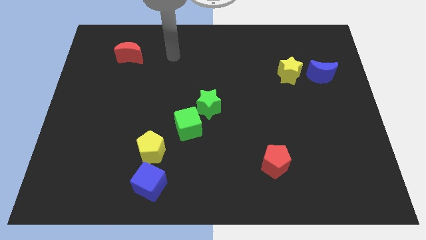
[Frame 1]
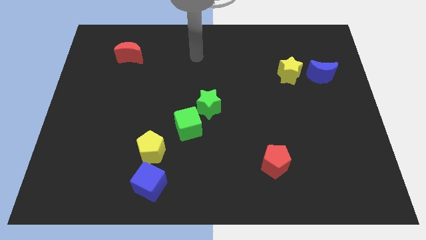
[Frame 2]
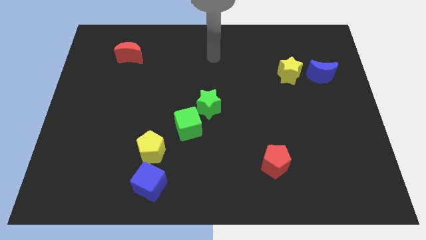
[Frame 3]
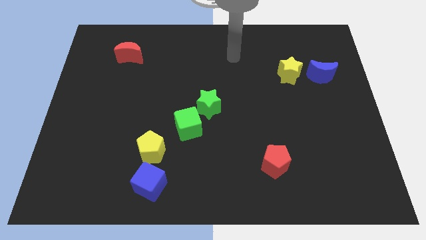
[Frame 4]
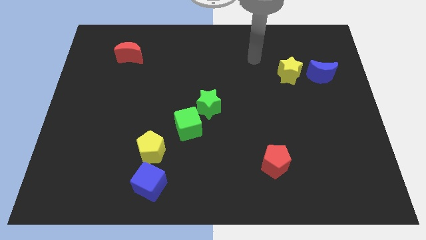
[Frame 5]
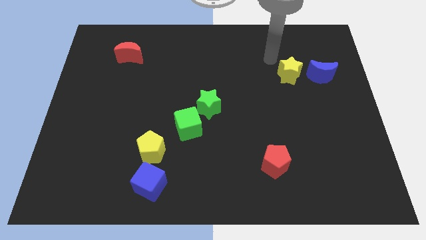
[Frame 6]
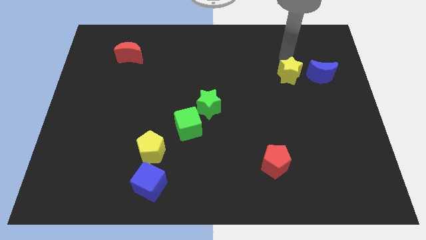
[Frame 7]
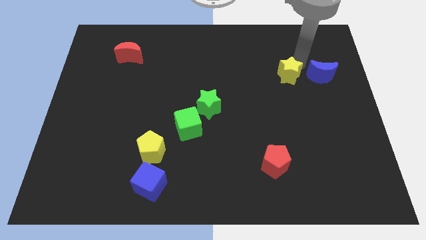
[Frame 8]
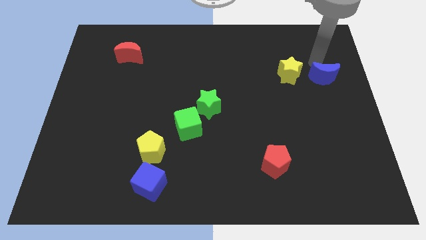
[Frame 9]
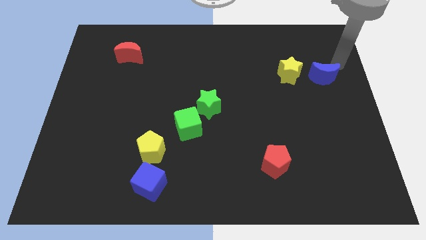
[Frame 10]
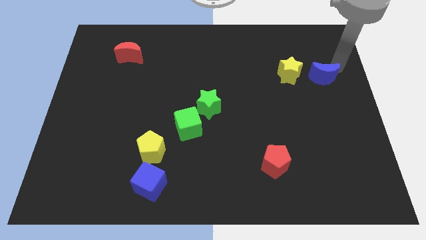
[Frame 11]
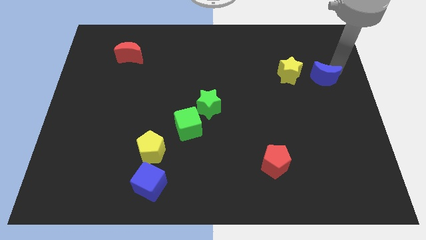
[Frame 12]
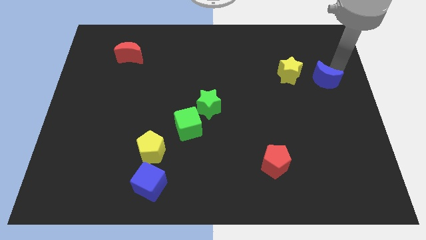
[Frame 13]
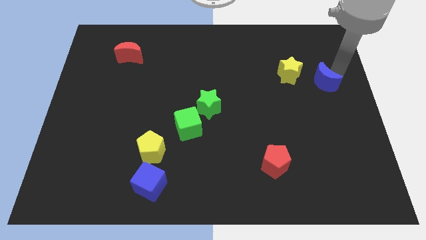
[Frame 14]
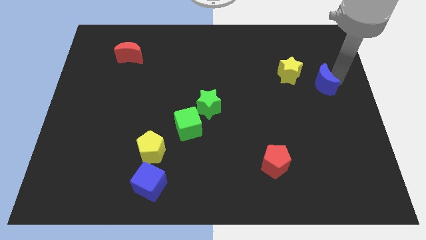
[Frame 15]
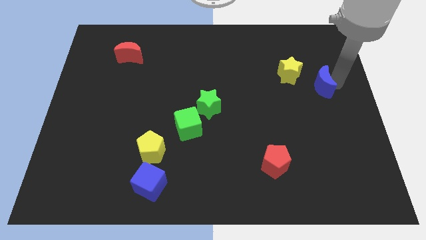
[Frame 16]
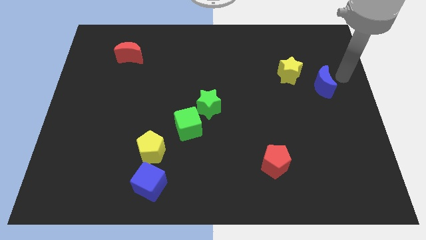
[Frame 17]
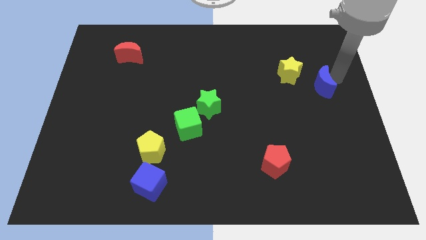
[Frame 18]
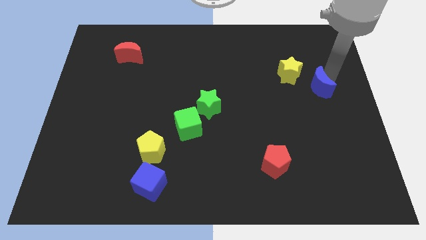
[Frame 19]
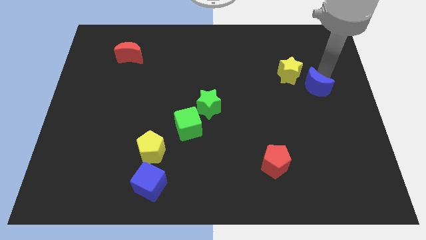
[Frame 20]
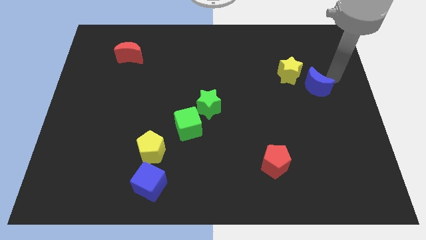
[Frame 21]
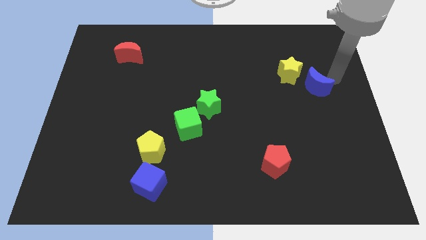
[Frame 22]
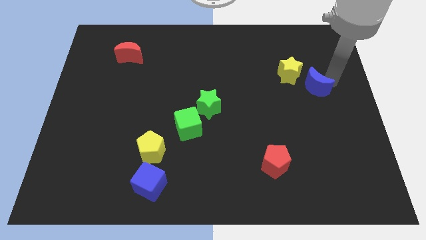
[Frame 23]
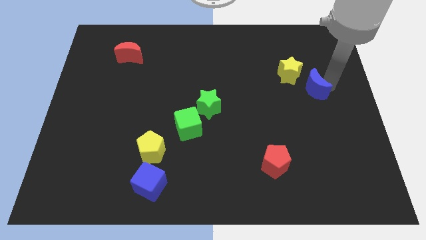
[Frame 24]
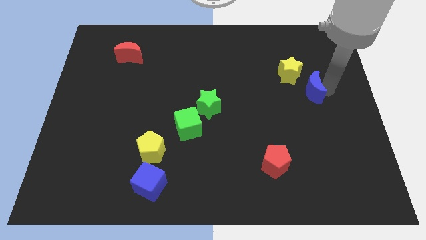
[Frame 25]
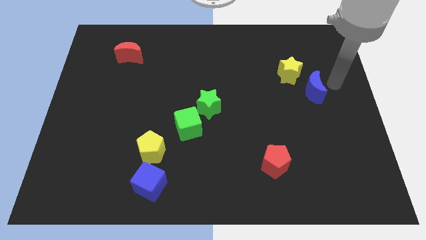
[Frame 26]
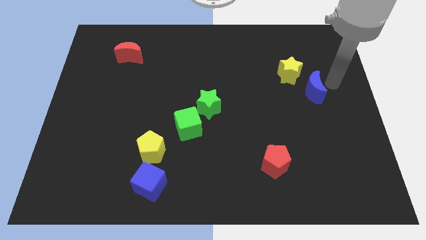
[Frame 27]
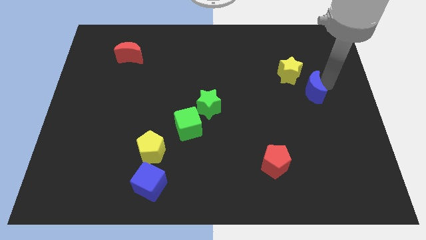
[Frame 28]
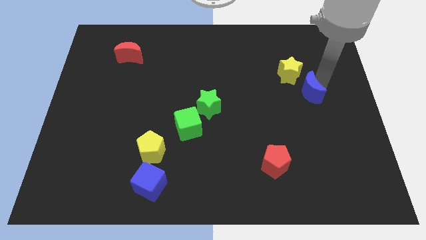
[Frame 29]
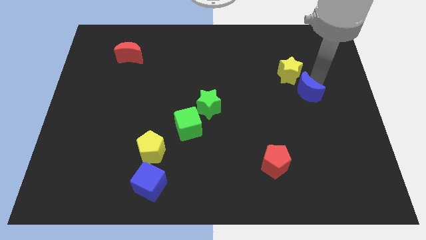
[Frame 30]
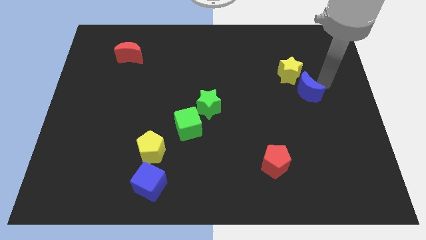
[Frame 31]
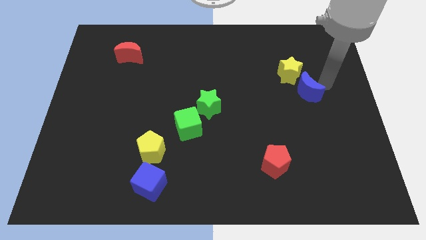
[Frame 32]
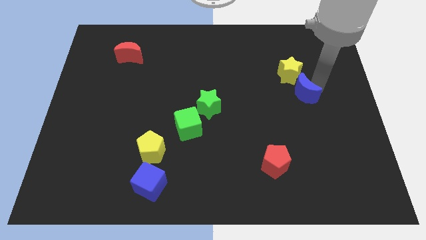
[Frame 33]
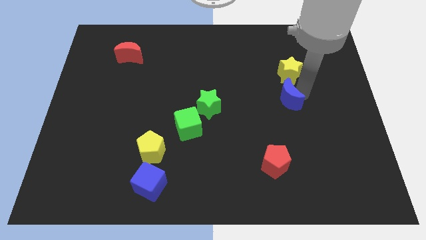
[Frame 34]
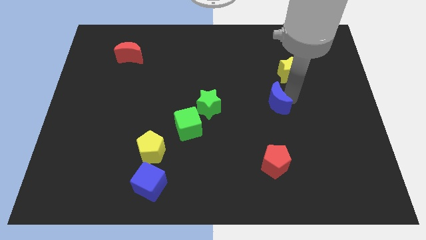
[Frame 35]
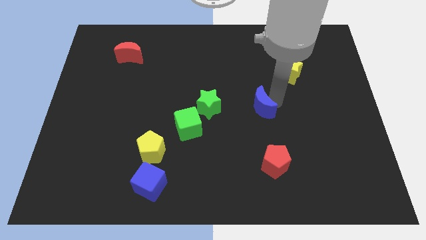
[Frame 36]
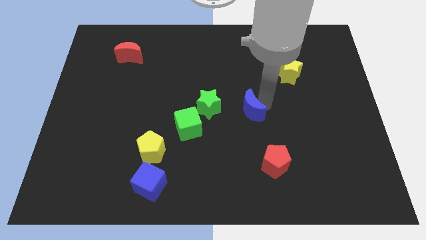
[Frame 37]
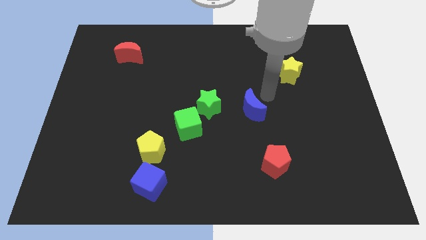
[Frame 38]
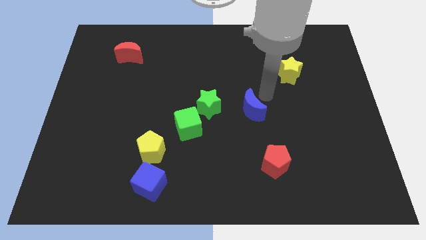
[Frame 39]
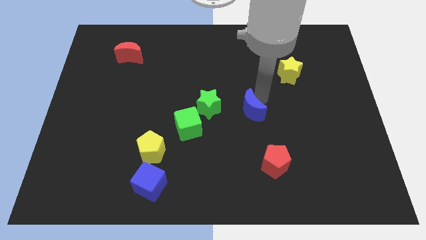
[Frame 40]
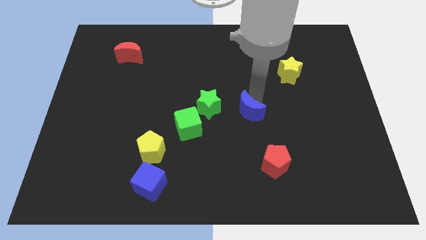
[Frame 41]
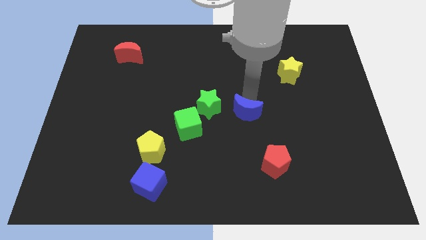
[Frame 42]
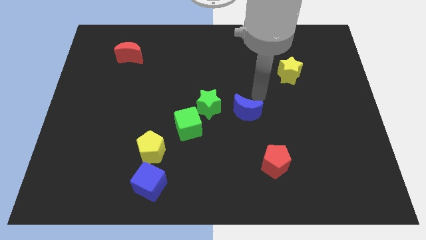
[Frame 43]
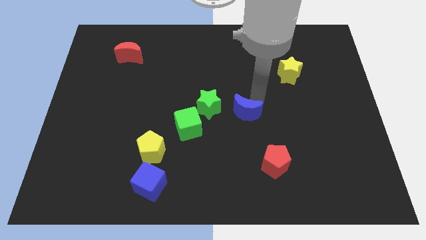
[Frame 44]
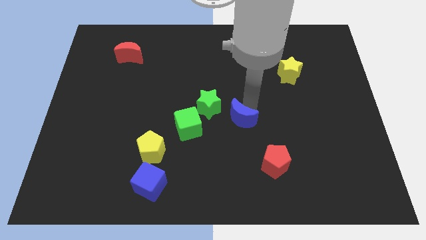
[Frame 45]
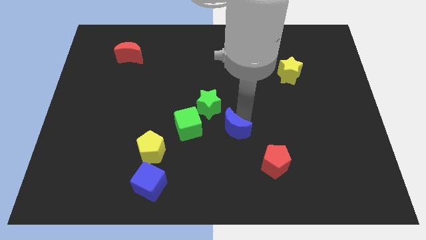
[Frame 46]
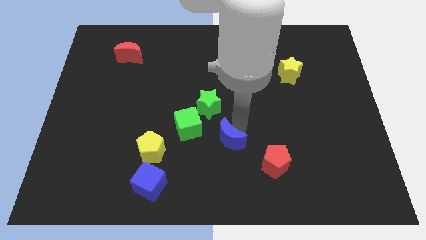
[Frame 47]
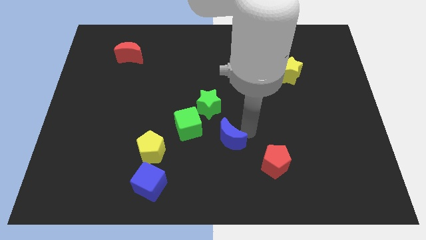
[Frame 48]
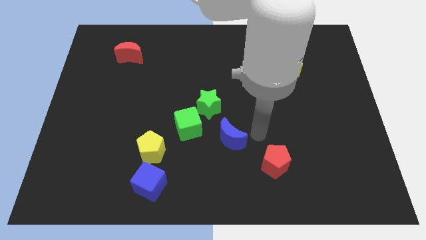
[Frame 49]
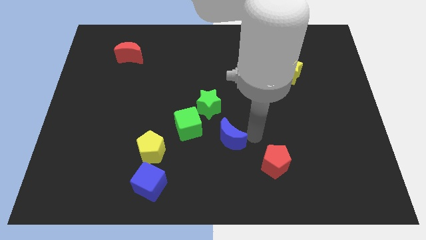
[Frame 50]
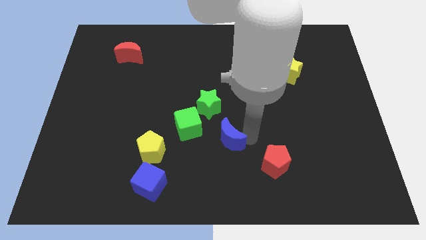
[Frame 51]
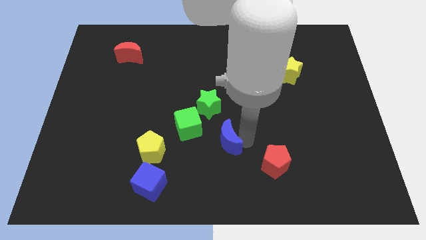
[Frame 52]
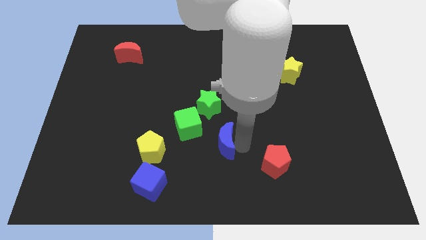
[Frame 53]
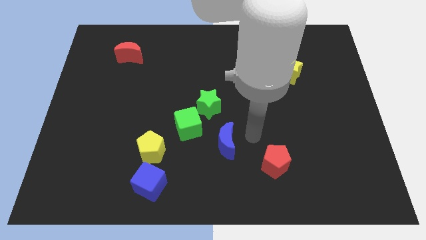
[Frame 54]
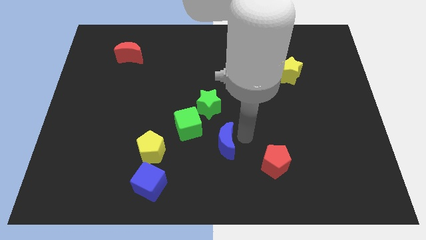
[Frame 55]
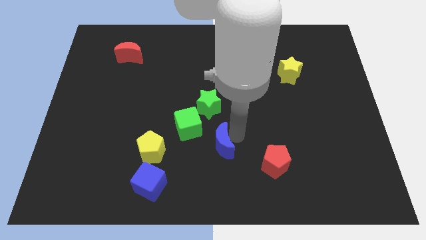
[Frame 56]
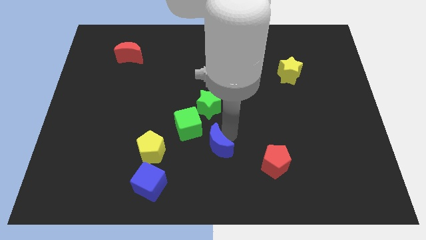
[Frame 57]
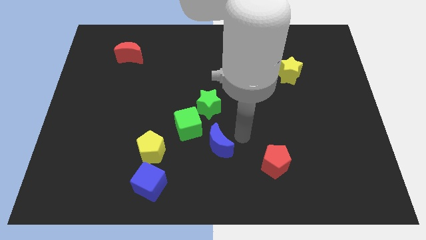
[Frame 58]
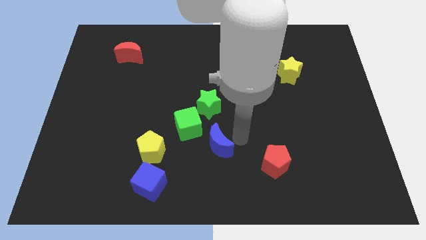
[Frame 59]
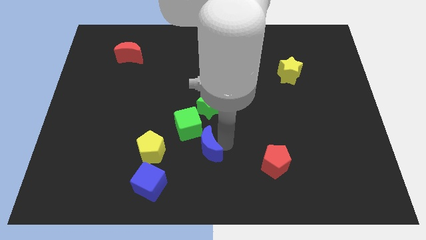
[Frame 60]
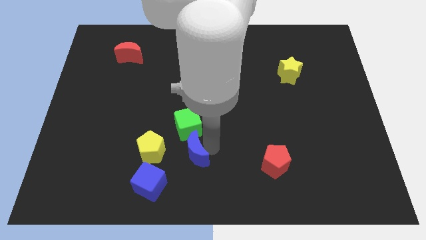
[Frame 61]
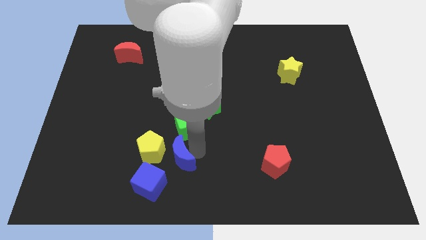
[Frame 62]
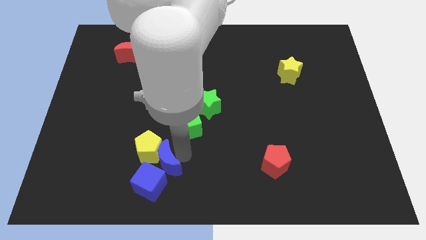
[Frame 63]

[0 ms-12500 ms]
slide the blue moon towards the blue cube
